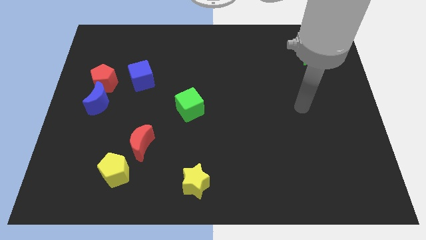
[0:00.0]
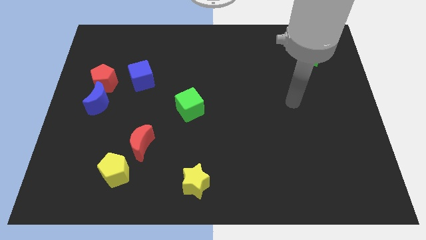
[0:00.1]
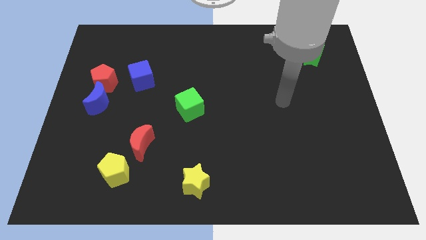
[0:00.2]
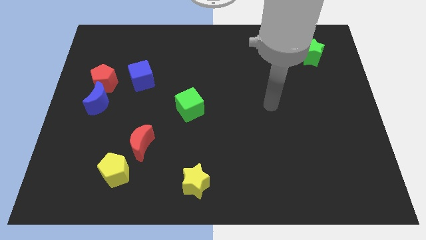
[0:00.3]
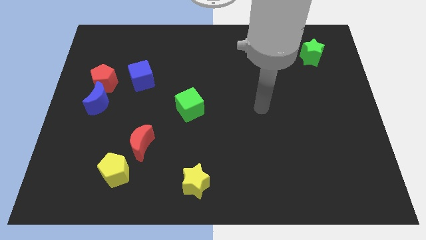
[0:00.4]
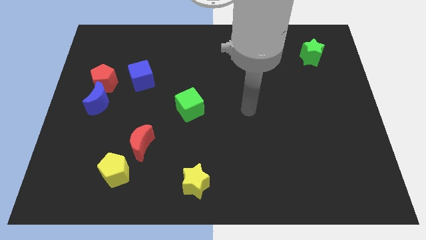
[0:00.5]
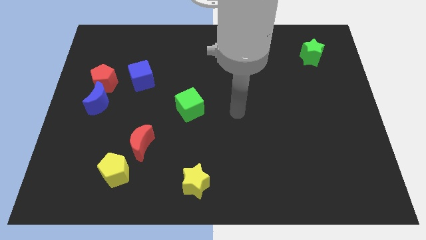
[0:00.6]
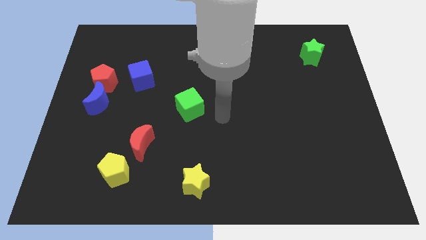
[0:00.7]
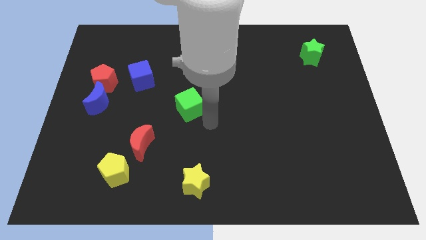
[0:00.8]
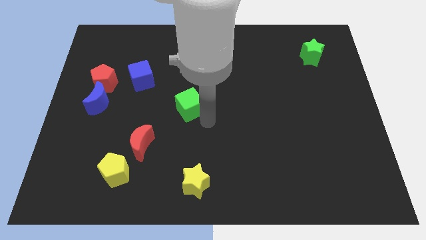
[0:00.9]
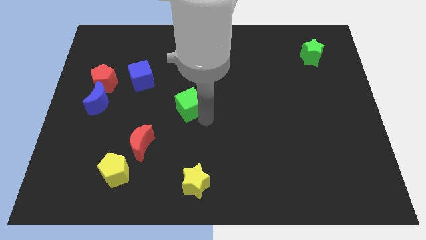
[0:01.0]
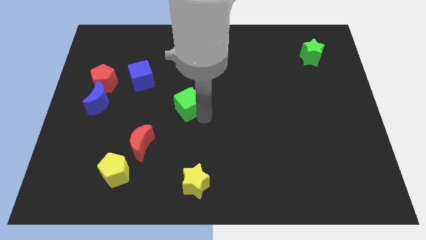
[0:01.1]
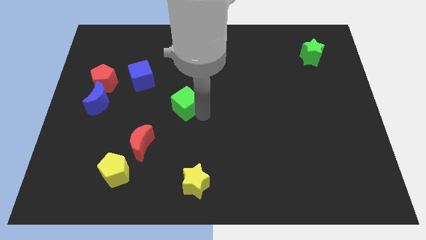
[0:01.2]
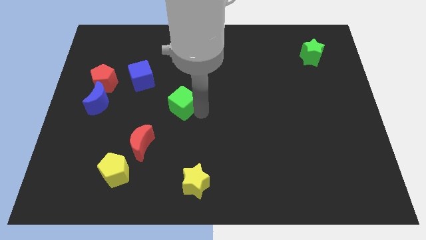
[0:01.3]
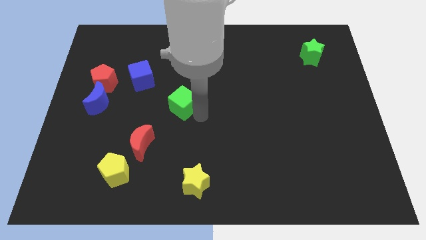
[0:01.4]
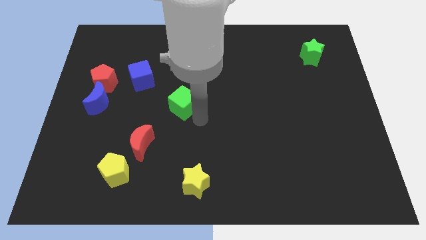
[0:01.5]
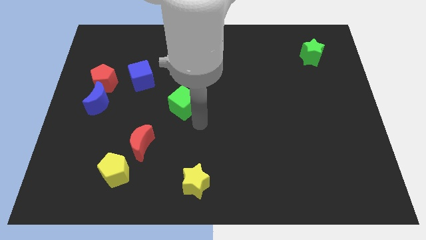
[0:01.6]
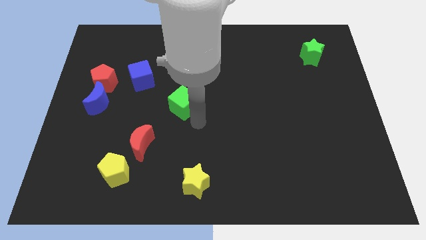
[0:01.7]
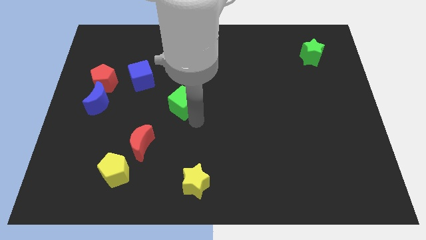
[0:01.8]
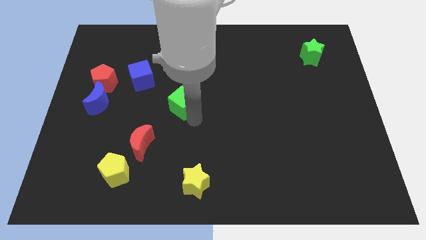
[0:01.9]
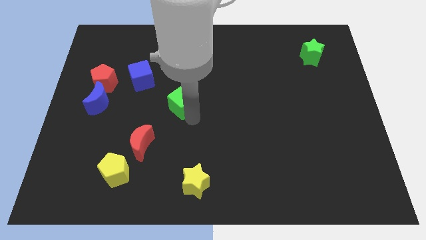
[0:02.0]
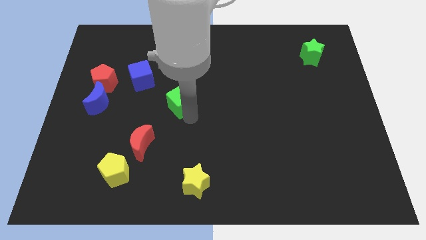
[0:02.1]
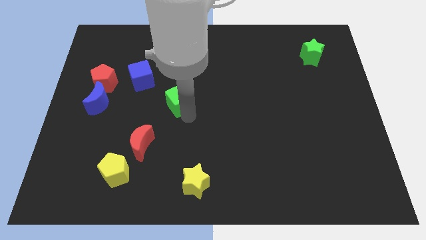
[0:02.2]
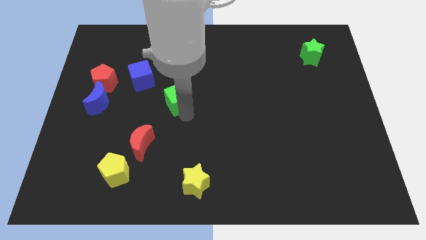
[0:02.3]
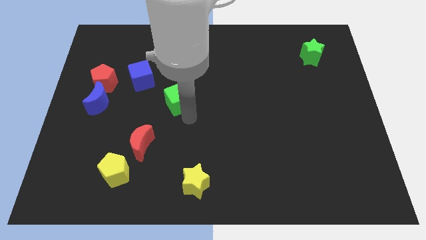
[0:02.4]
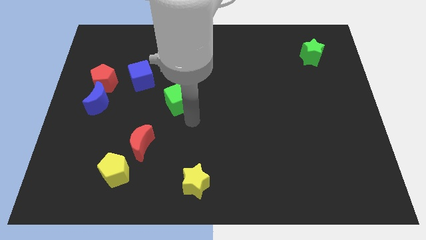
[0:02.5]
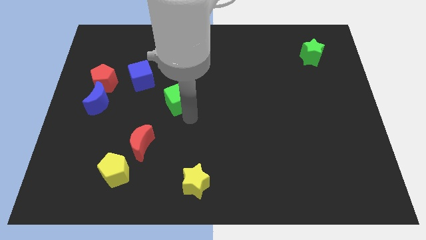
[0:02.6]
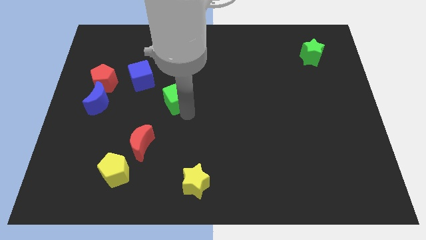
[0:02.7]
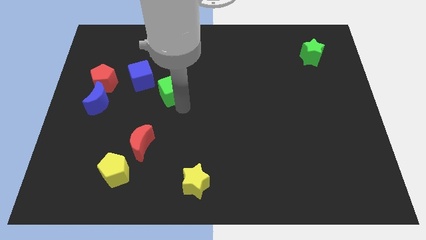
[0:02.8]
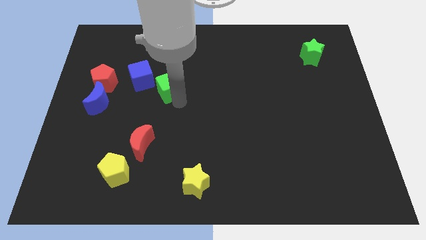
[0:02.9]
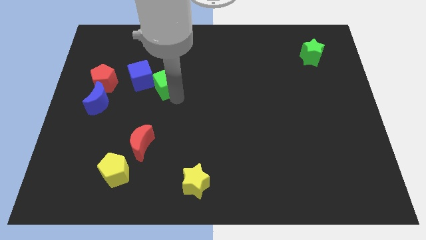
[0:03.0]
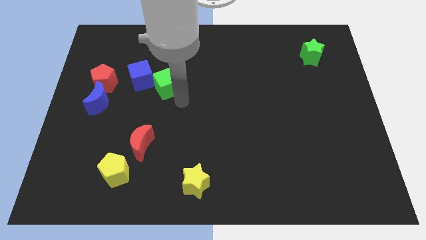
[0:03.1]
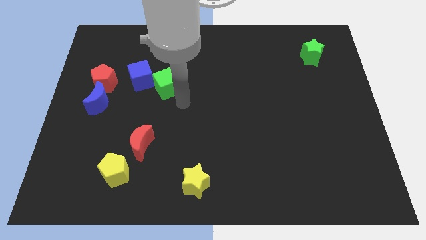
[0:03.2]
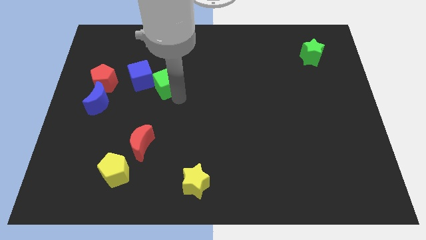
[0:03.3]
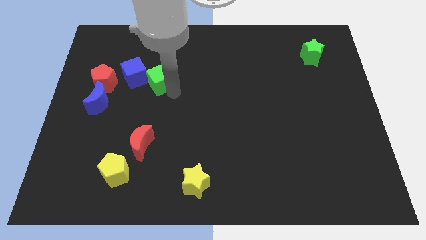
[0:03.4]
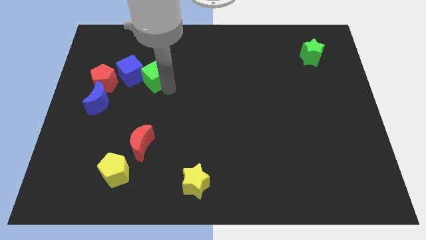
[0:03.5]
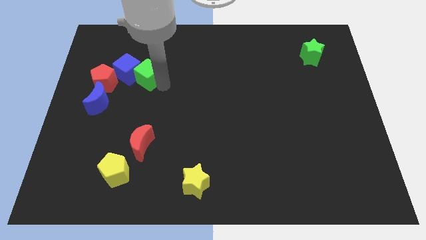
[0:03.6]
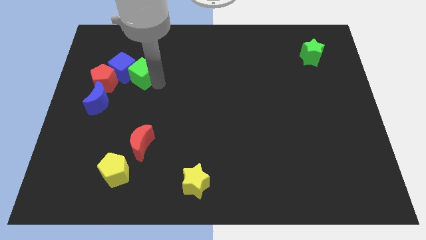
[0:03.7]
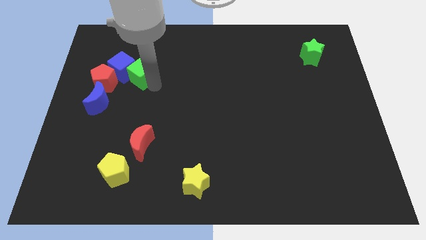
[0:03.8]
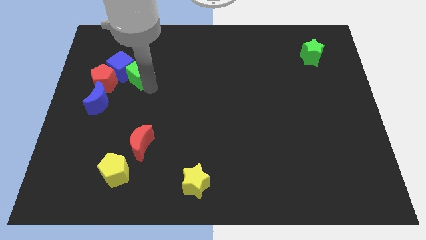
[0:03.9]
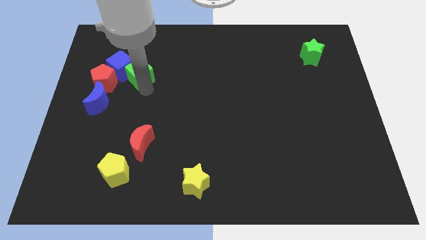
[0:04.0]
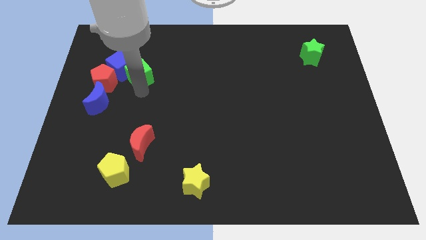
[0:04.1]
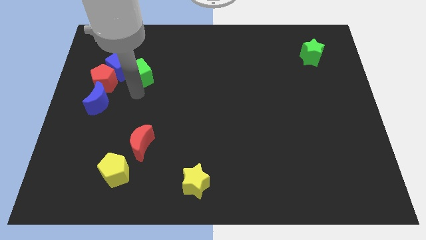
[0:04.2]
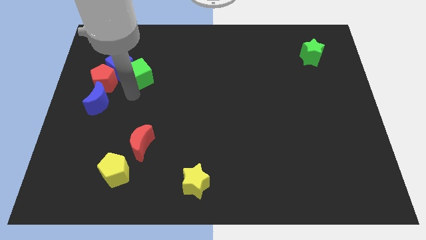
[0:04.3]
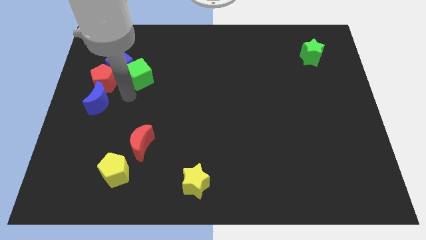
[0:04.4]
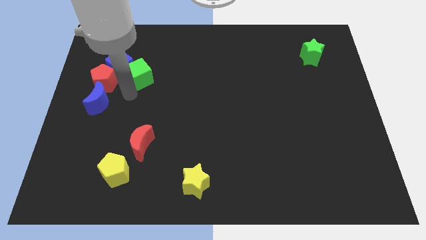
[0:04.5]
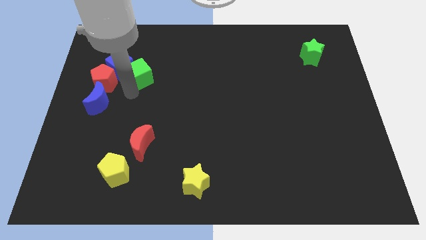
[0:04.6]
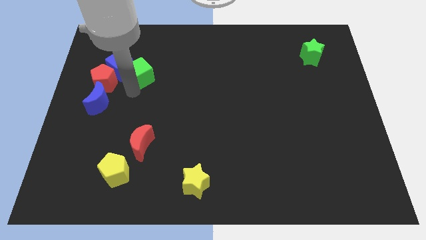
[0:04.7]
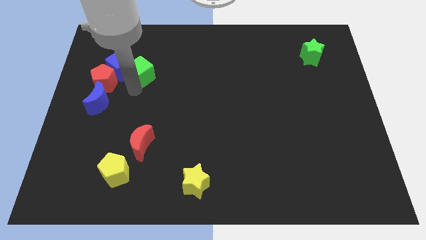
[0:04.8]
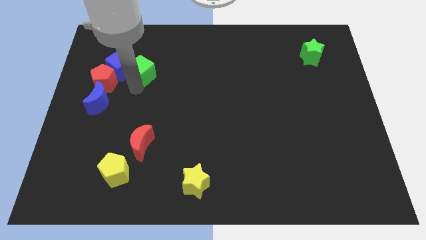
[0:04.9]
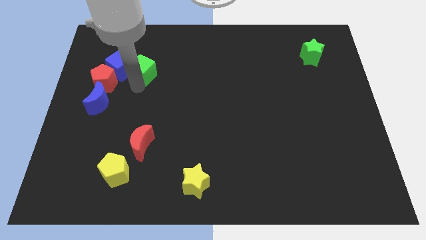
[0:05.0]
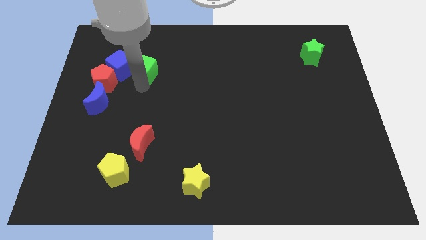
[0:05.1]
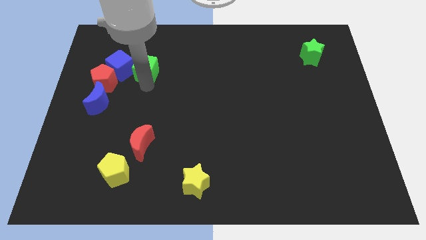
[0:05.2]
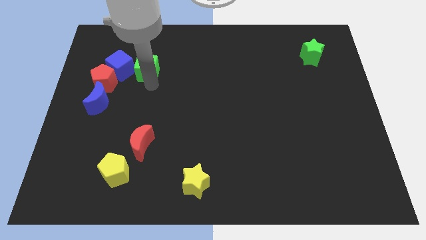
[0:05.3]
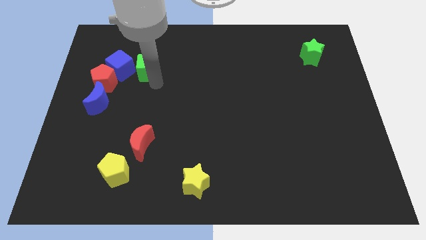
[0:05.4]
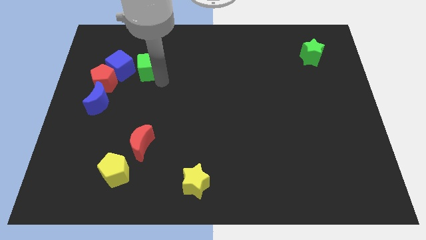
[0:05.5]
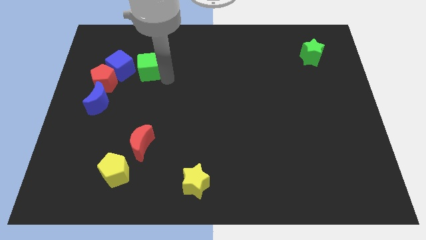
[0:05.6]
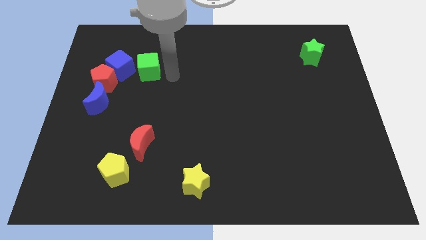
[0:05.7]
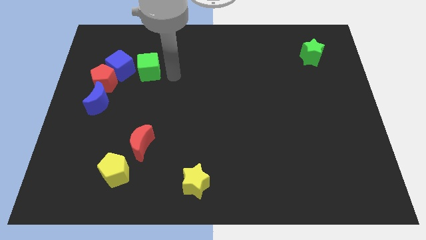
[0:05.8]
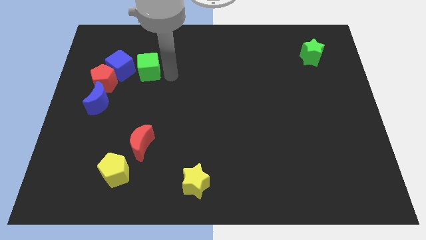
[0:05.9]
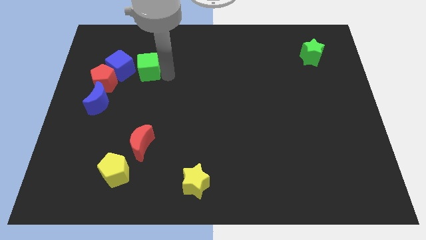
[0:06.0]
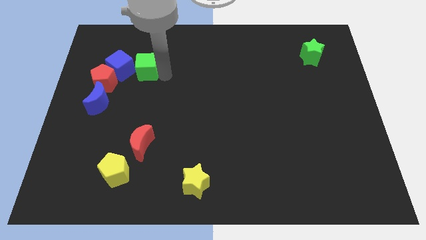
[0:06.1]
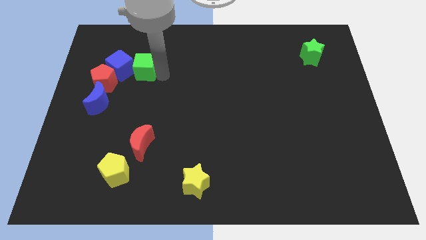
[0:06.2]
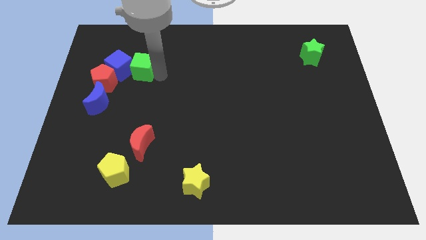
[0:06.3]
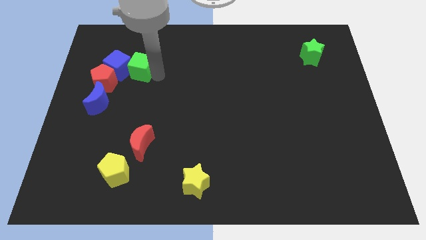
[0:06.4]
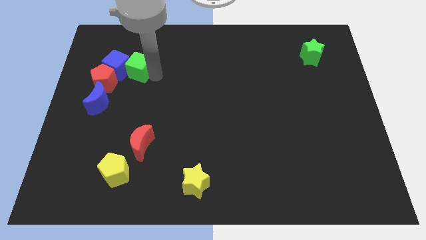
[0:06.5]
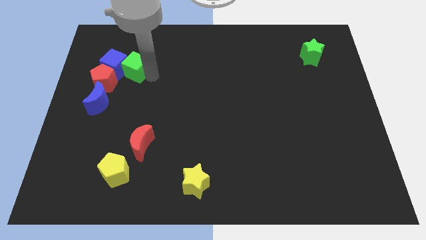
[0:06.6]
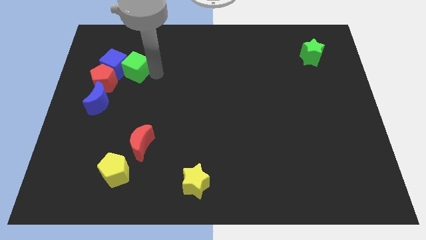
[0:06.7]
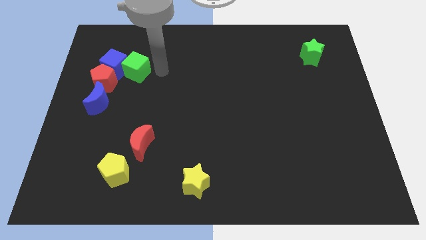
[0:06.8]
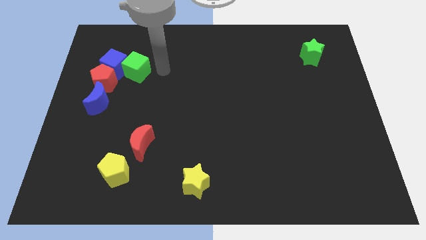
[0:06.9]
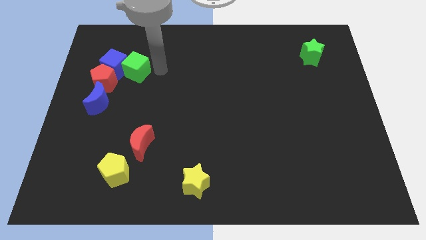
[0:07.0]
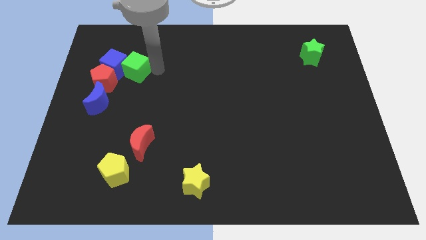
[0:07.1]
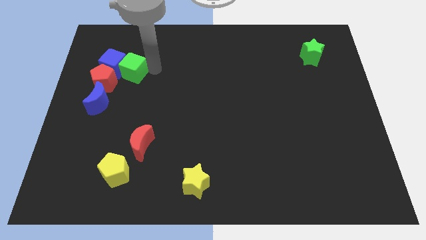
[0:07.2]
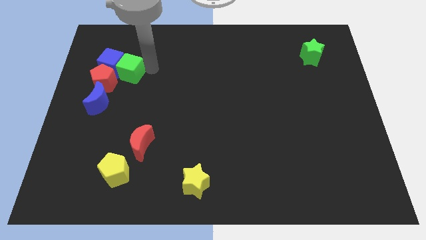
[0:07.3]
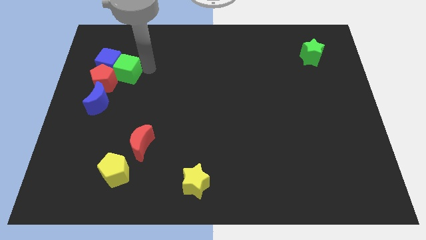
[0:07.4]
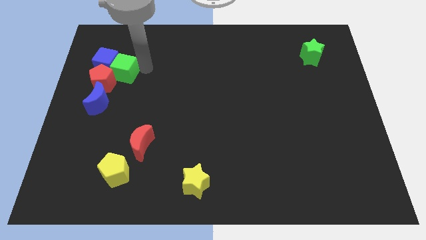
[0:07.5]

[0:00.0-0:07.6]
put the green cube to the top side of the blue moon
